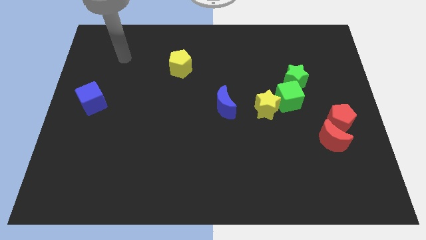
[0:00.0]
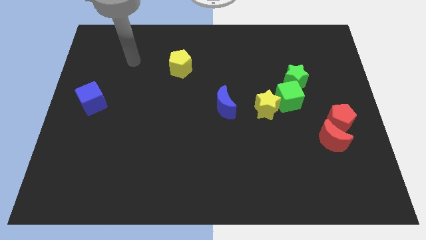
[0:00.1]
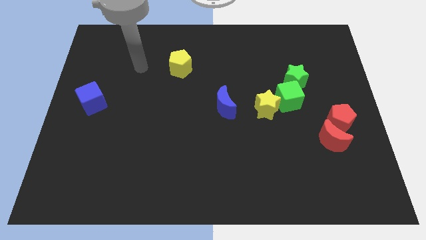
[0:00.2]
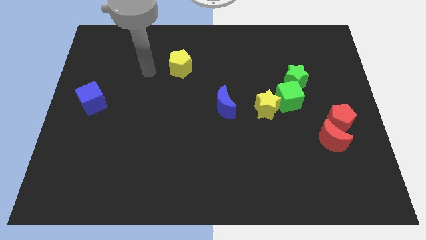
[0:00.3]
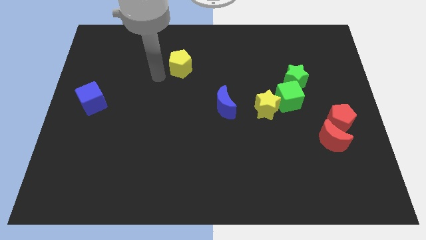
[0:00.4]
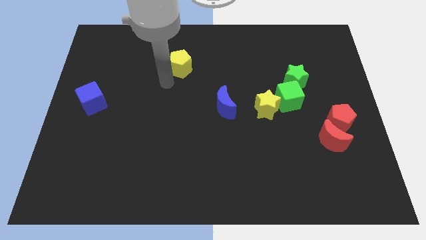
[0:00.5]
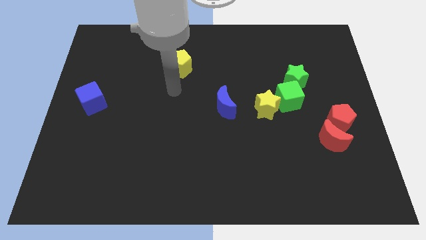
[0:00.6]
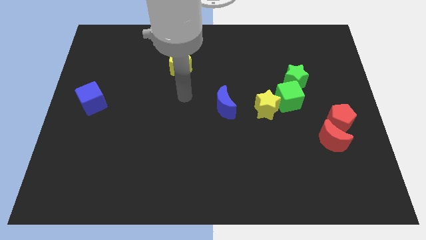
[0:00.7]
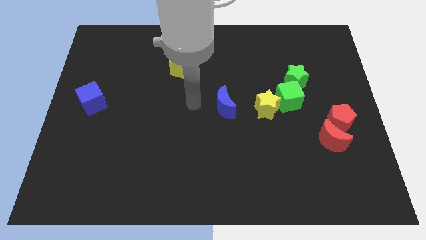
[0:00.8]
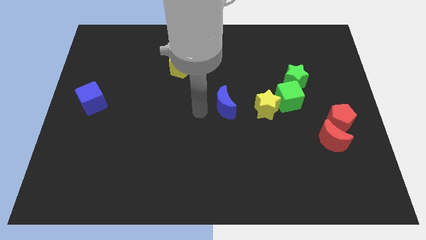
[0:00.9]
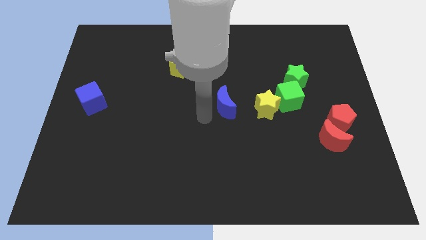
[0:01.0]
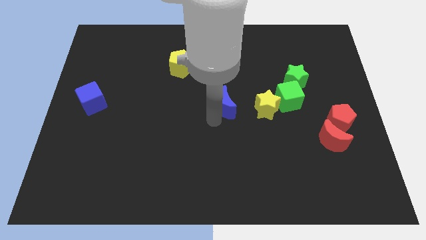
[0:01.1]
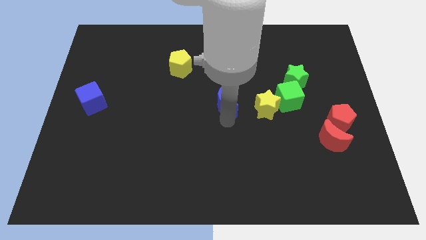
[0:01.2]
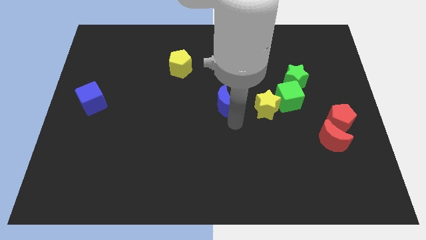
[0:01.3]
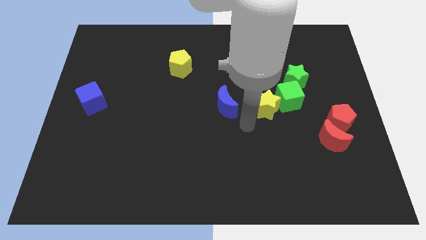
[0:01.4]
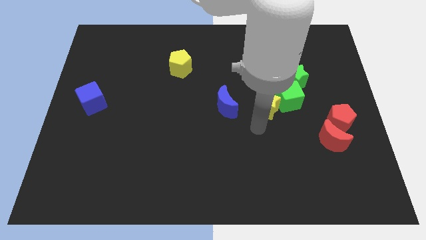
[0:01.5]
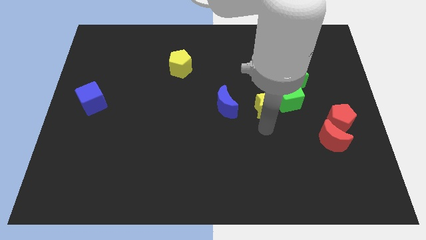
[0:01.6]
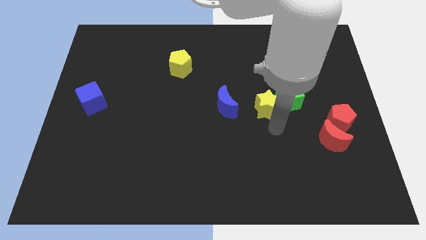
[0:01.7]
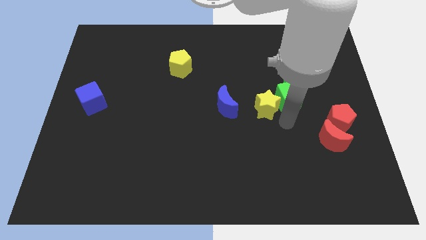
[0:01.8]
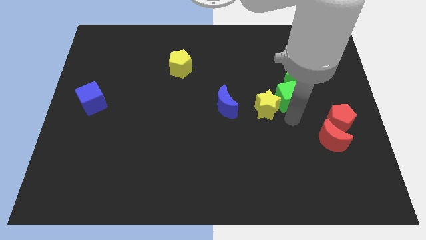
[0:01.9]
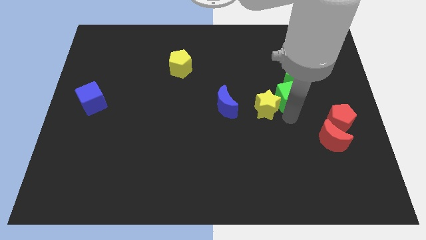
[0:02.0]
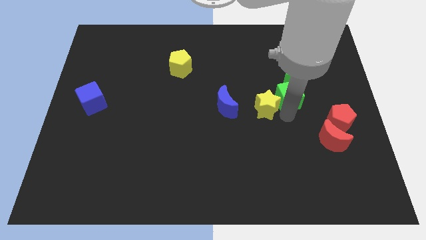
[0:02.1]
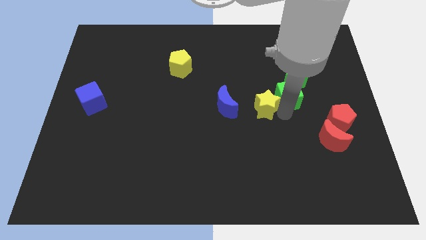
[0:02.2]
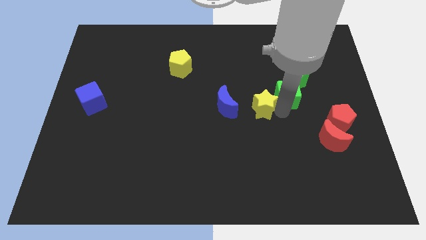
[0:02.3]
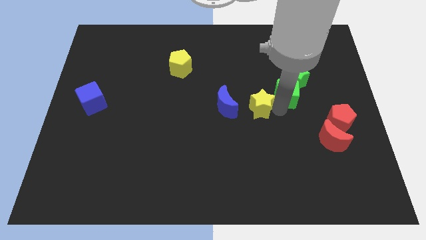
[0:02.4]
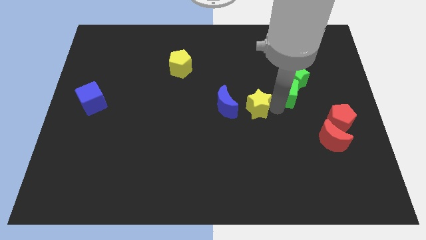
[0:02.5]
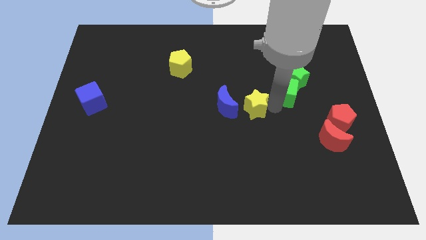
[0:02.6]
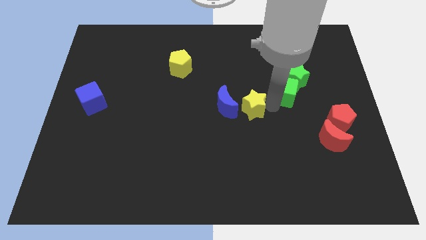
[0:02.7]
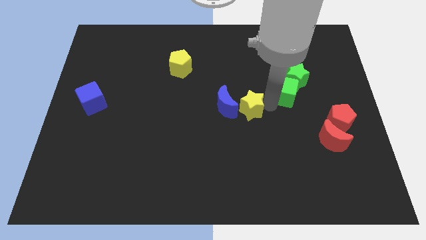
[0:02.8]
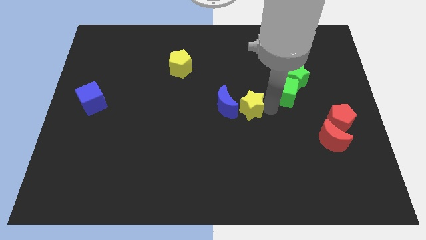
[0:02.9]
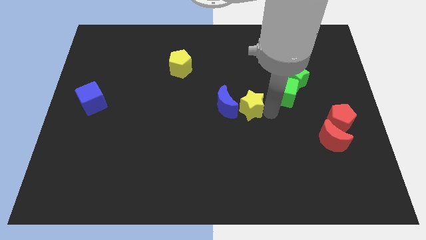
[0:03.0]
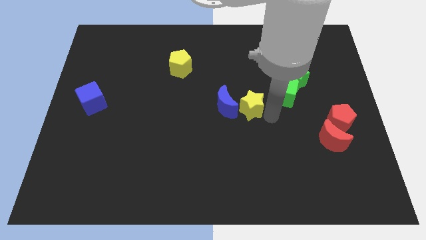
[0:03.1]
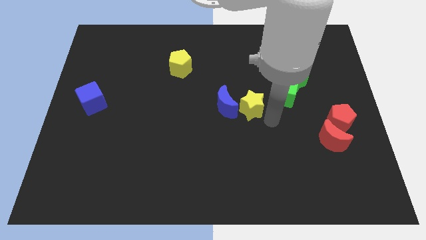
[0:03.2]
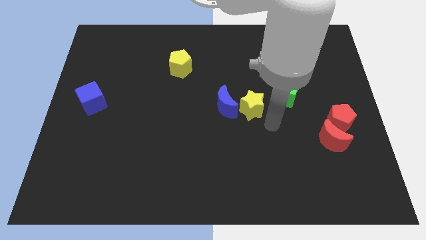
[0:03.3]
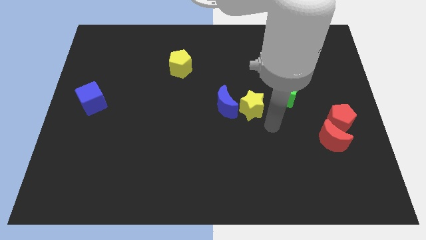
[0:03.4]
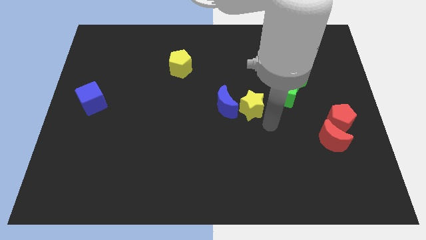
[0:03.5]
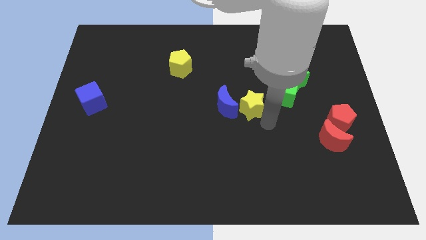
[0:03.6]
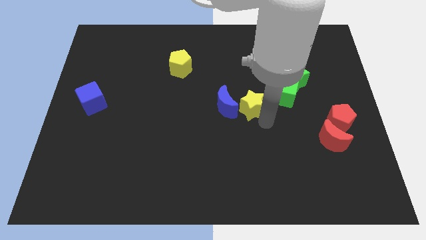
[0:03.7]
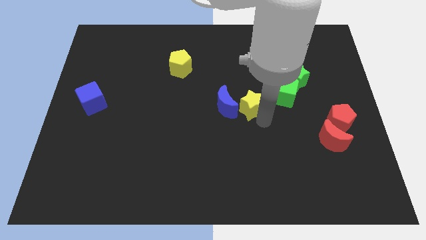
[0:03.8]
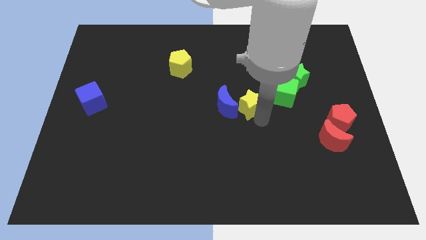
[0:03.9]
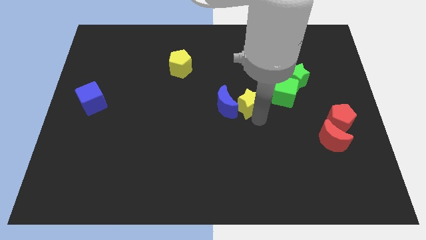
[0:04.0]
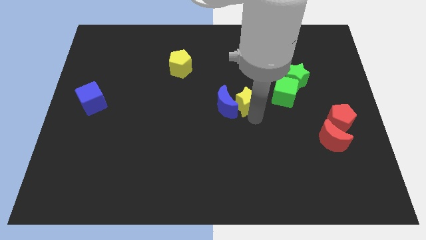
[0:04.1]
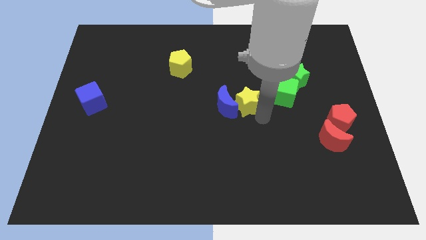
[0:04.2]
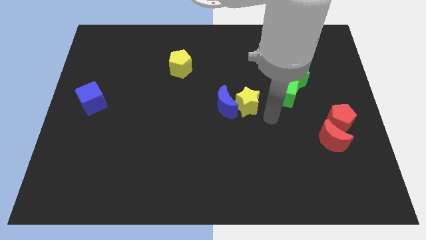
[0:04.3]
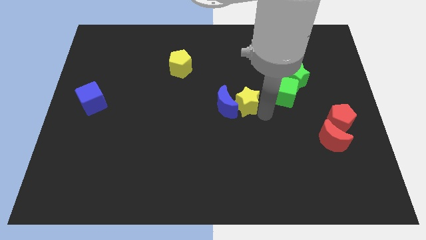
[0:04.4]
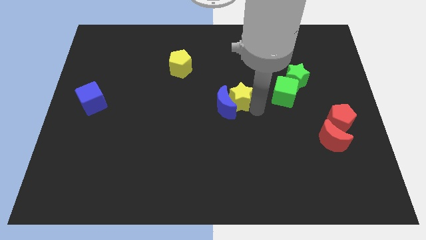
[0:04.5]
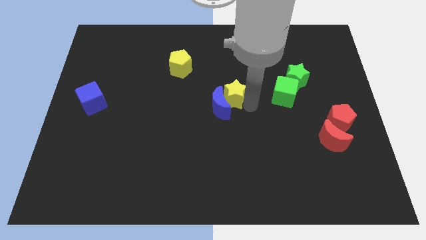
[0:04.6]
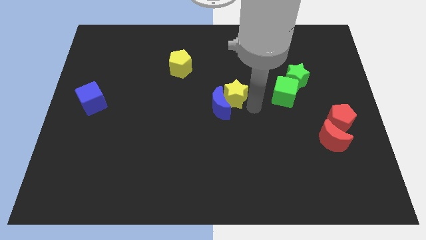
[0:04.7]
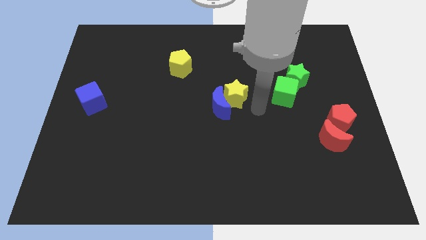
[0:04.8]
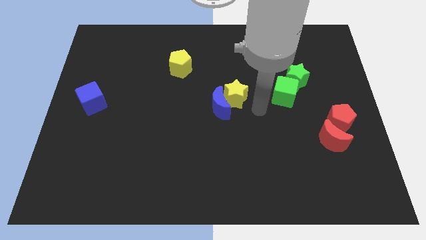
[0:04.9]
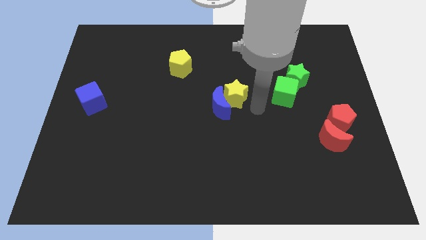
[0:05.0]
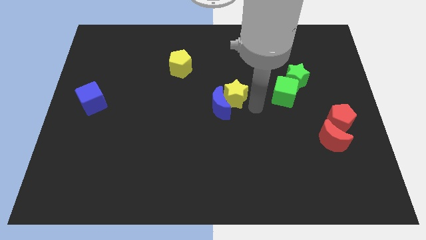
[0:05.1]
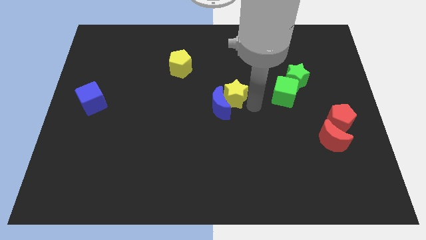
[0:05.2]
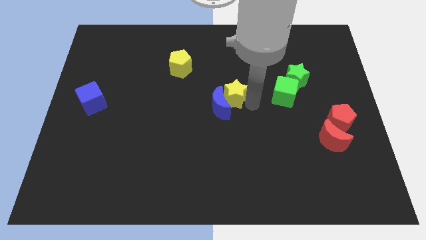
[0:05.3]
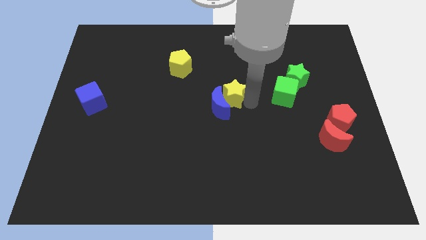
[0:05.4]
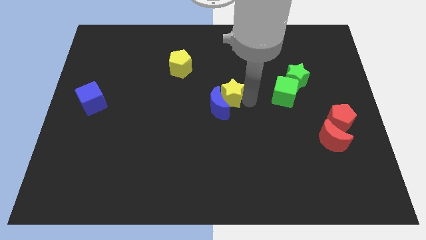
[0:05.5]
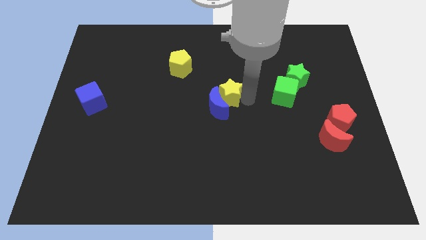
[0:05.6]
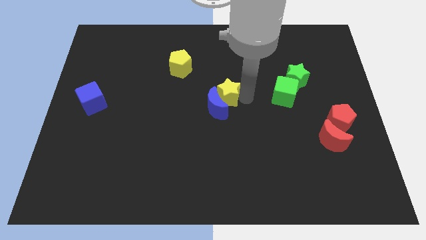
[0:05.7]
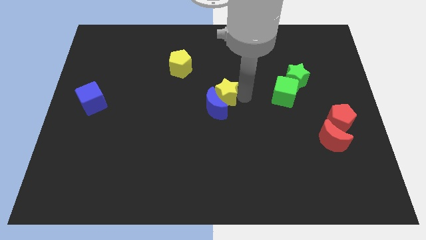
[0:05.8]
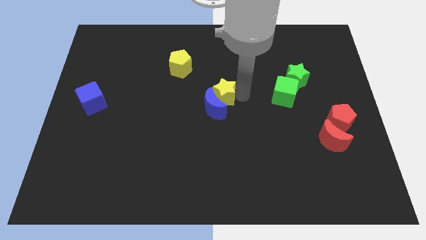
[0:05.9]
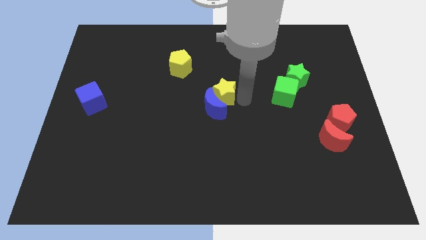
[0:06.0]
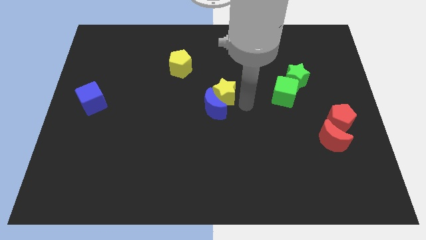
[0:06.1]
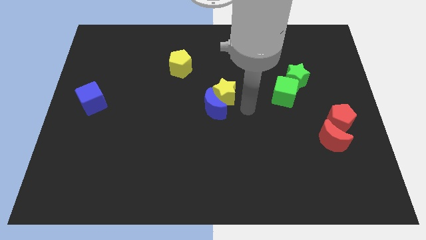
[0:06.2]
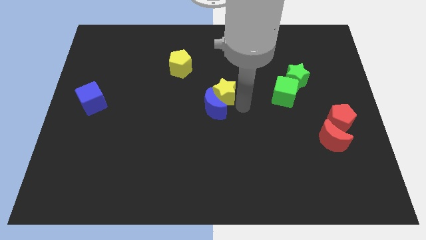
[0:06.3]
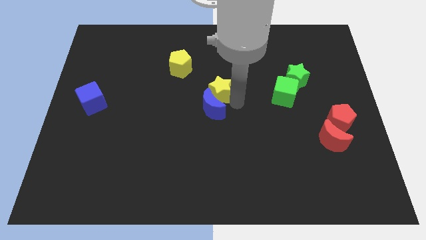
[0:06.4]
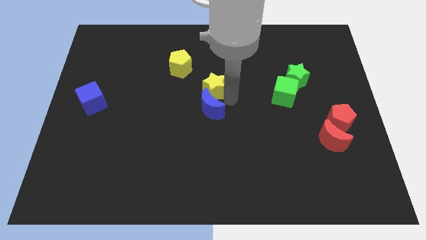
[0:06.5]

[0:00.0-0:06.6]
put the yellow star diagonally down and to the right of the yellow pentagon

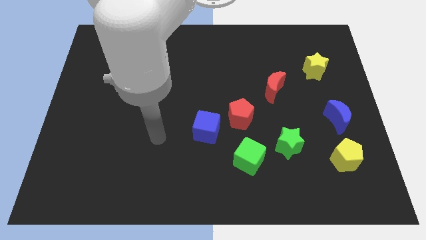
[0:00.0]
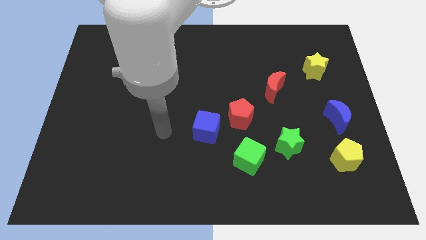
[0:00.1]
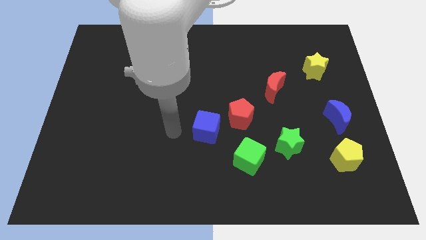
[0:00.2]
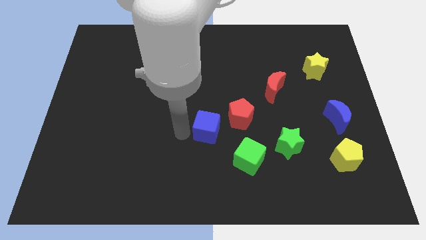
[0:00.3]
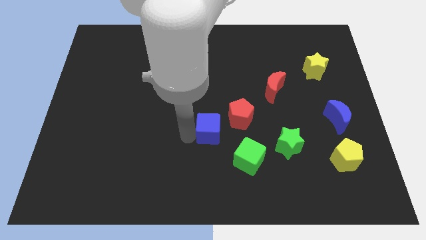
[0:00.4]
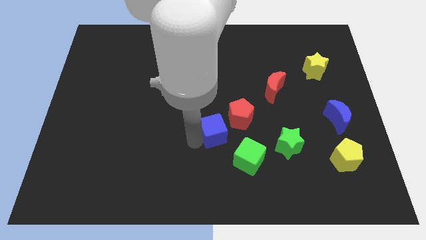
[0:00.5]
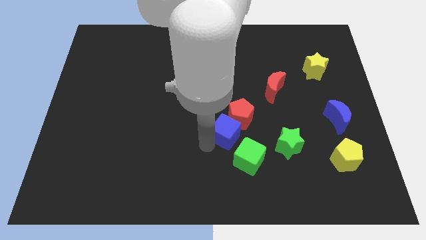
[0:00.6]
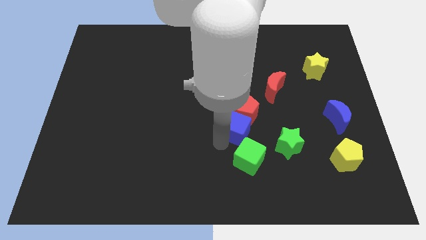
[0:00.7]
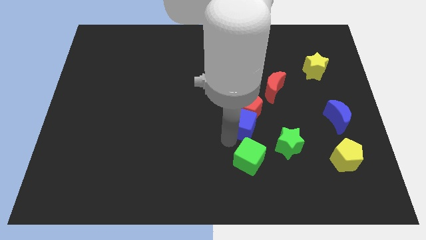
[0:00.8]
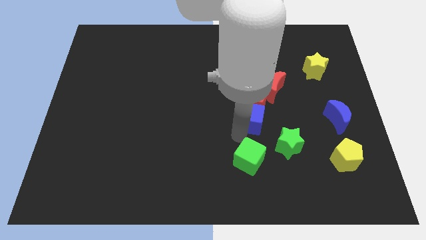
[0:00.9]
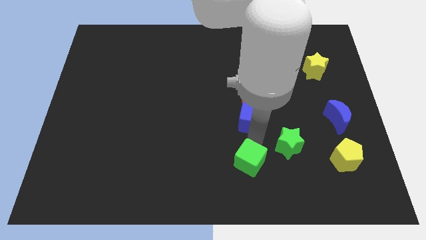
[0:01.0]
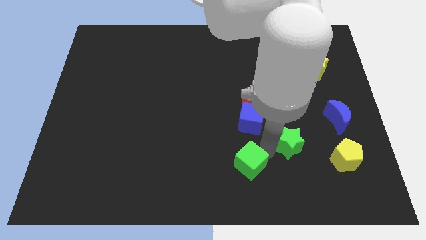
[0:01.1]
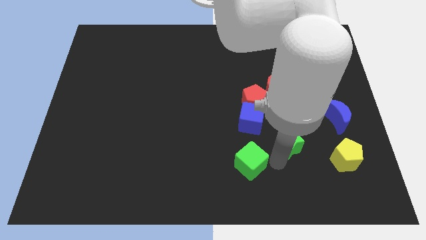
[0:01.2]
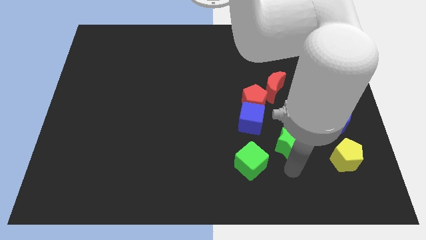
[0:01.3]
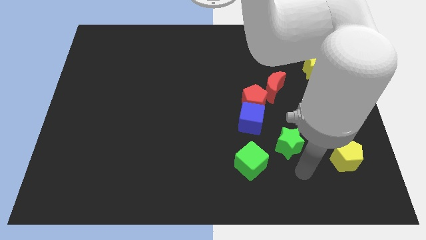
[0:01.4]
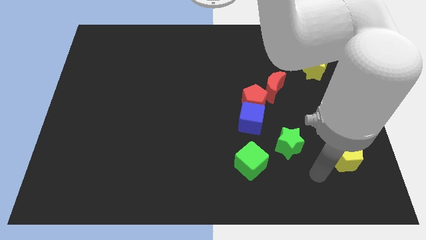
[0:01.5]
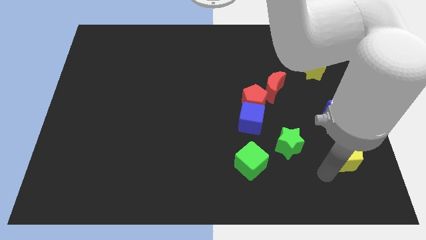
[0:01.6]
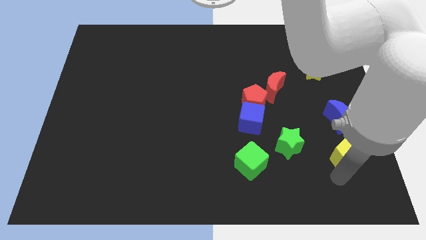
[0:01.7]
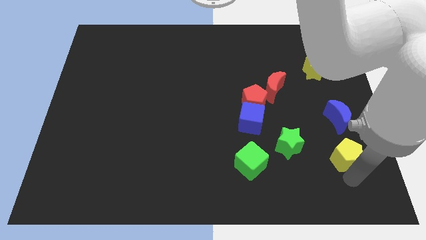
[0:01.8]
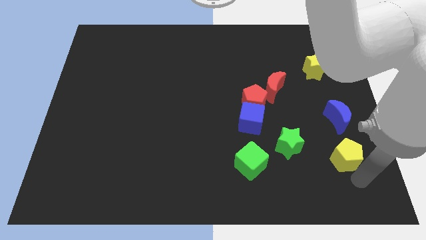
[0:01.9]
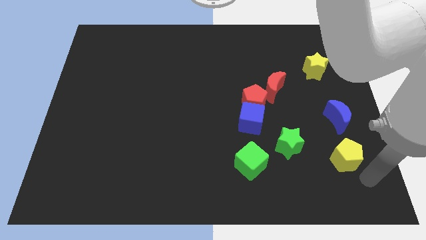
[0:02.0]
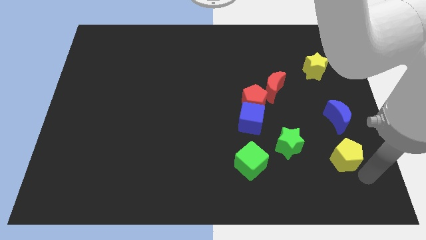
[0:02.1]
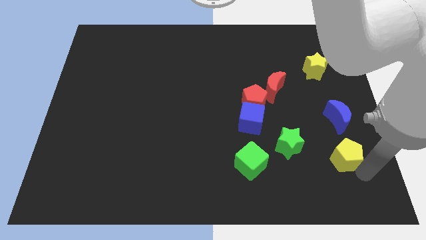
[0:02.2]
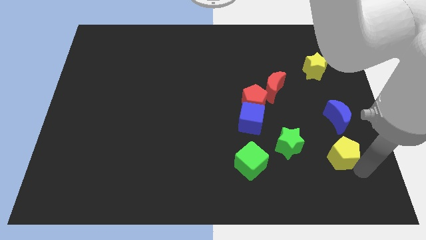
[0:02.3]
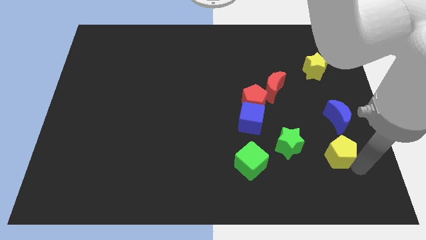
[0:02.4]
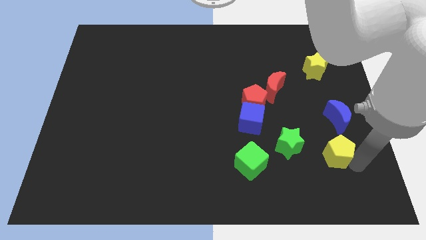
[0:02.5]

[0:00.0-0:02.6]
put the yellow pentagon diagonally down and to the left of the blue moon
